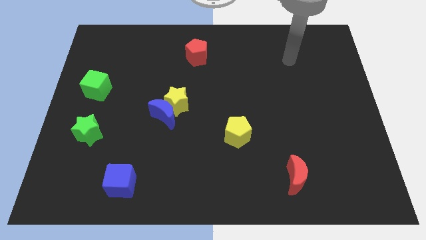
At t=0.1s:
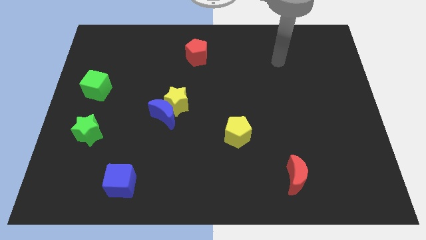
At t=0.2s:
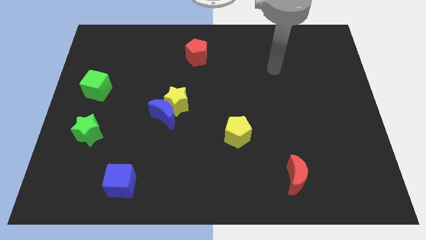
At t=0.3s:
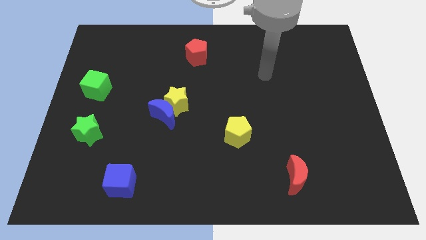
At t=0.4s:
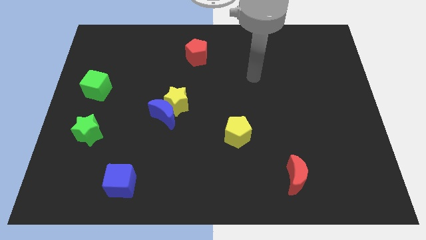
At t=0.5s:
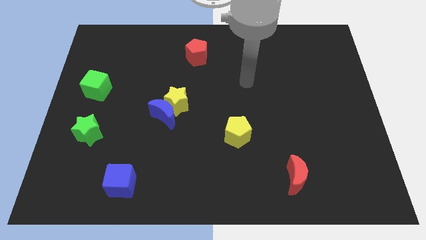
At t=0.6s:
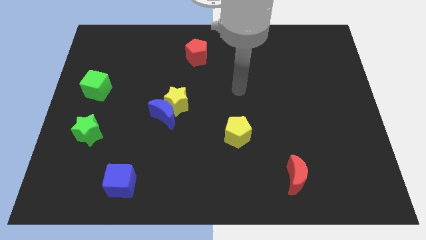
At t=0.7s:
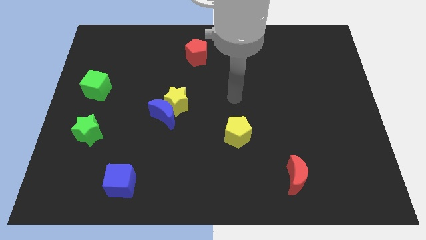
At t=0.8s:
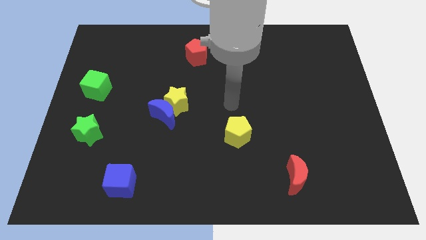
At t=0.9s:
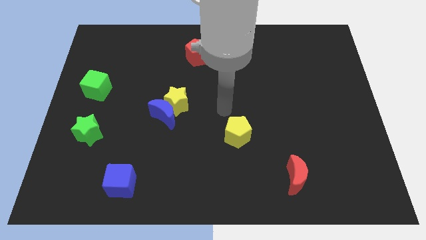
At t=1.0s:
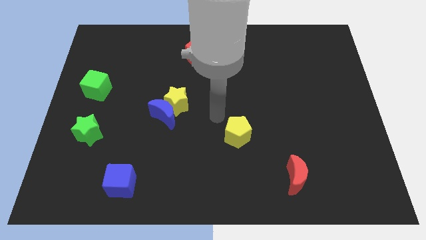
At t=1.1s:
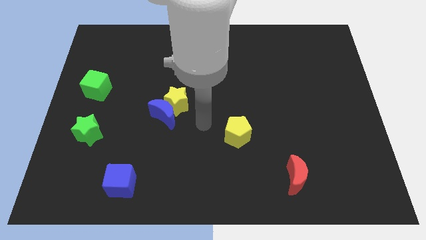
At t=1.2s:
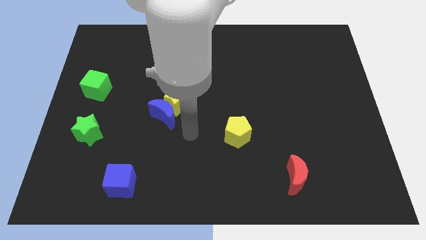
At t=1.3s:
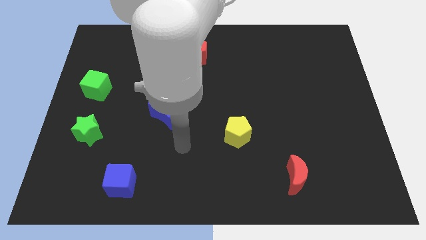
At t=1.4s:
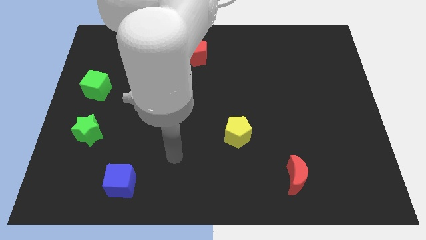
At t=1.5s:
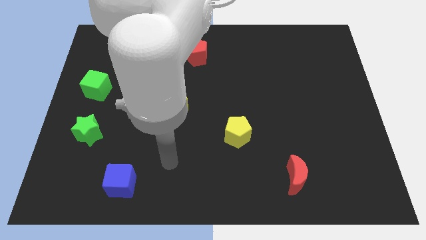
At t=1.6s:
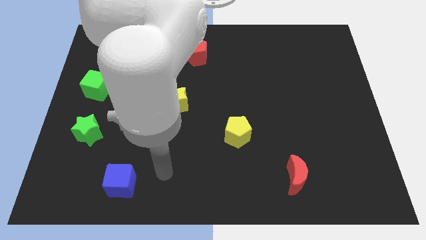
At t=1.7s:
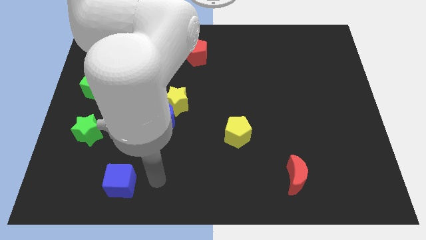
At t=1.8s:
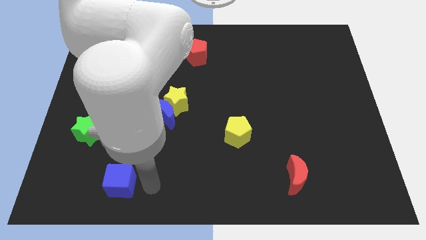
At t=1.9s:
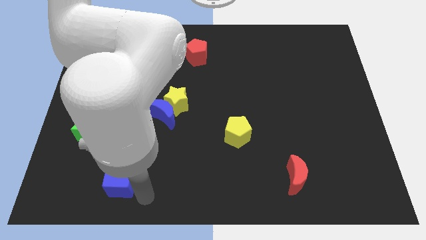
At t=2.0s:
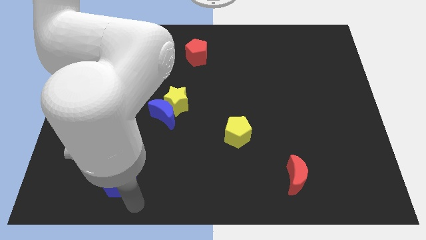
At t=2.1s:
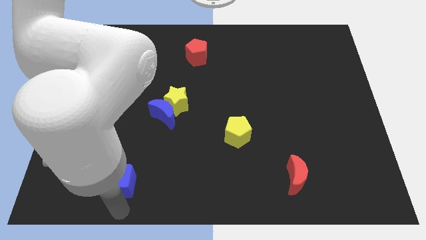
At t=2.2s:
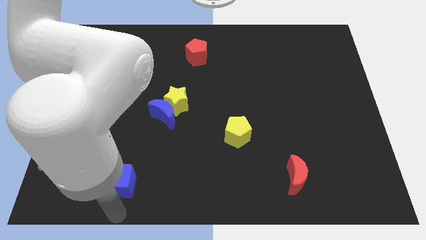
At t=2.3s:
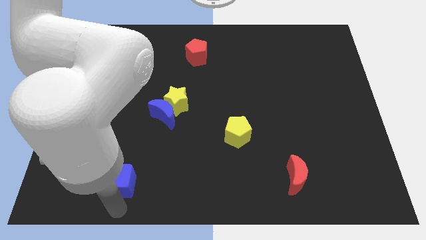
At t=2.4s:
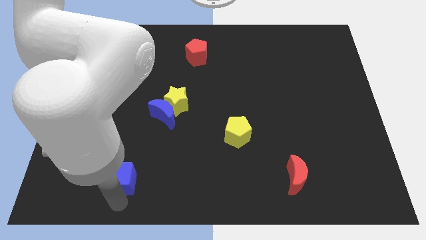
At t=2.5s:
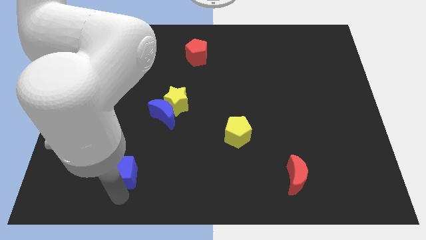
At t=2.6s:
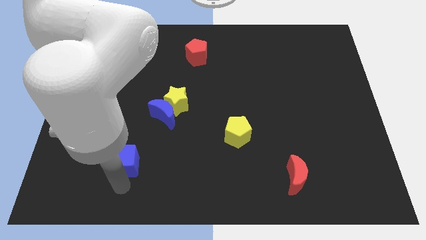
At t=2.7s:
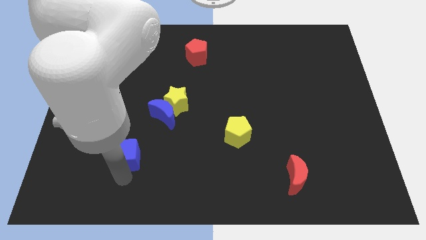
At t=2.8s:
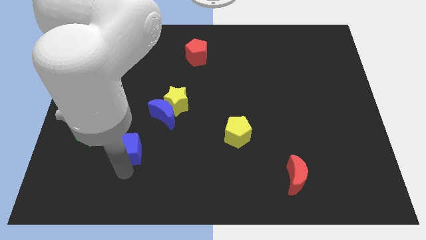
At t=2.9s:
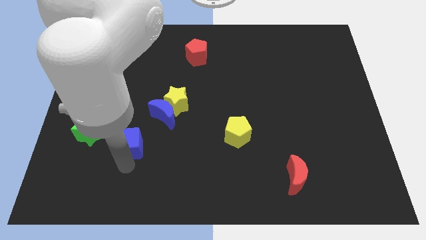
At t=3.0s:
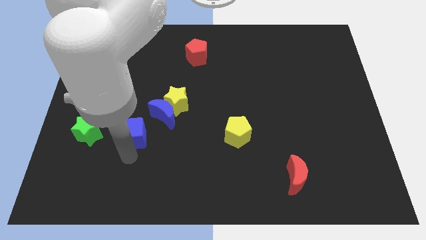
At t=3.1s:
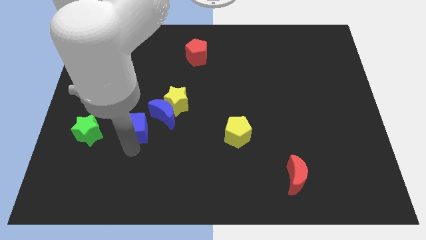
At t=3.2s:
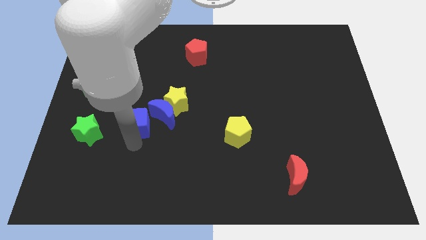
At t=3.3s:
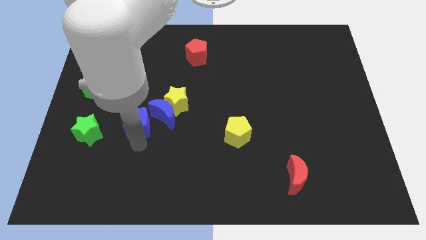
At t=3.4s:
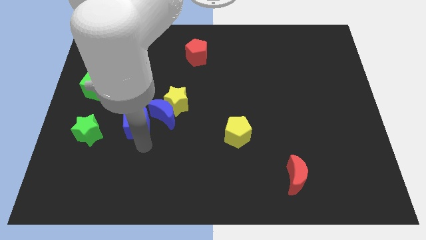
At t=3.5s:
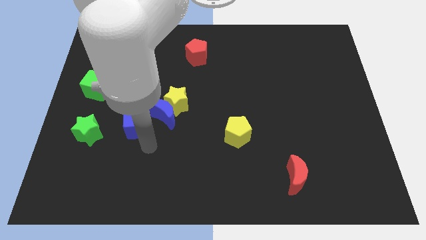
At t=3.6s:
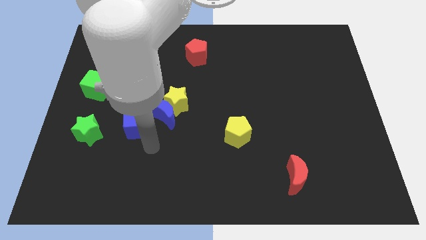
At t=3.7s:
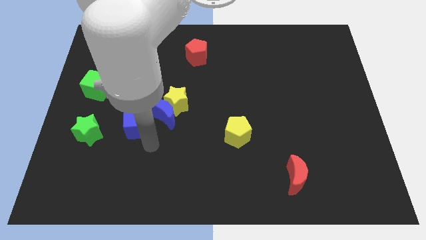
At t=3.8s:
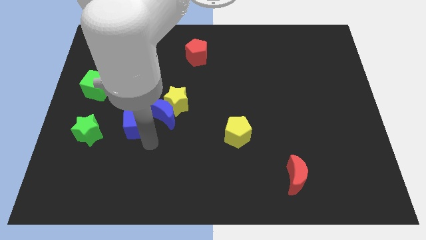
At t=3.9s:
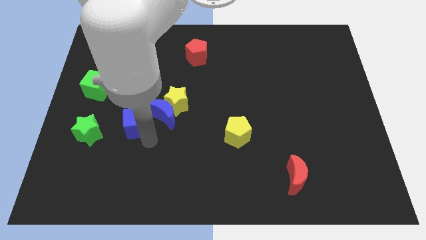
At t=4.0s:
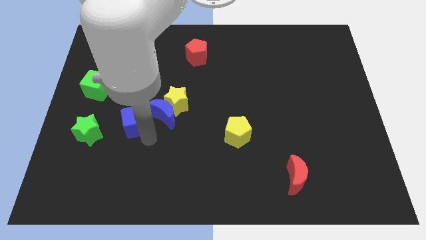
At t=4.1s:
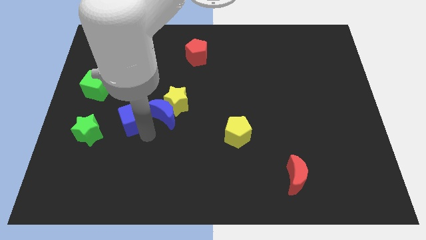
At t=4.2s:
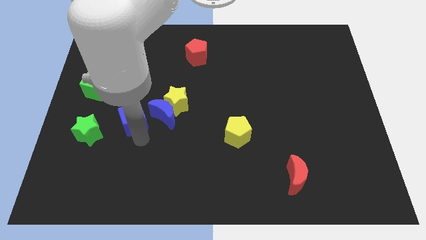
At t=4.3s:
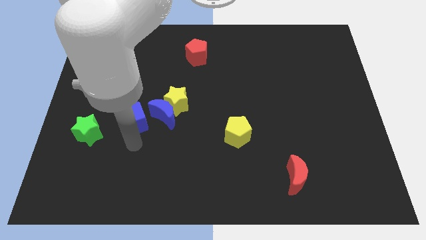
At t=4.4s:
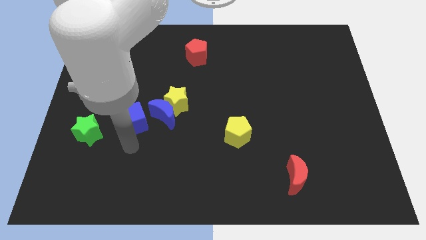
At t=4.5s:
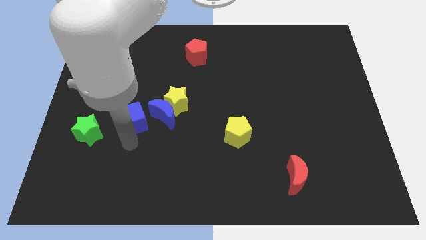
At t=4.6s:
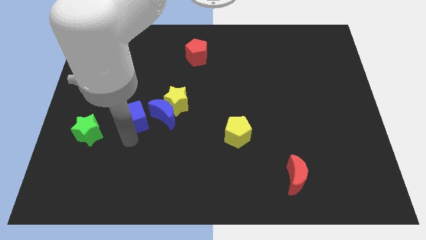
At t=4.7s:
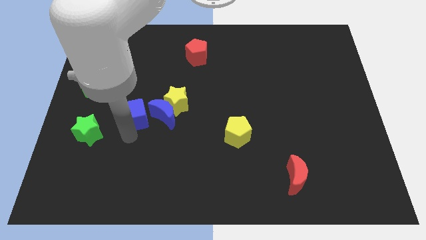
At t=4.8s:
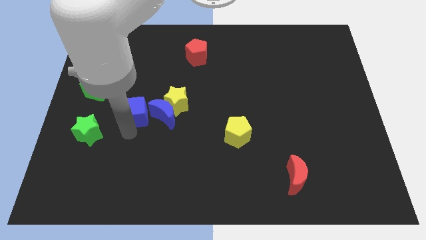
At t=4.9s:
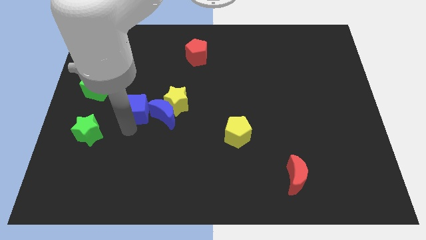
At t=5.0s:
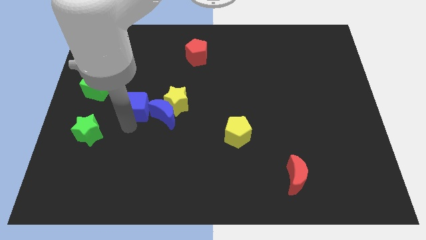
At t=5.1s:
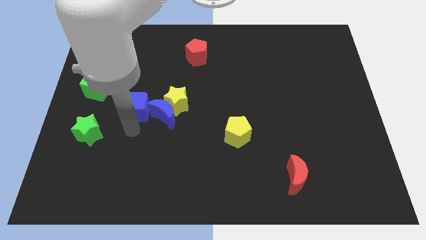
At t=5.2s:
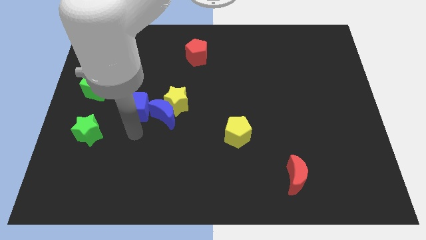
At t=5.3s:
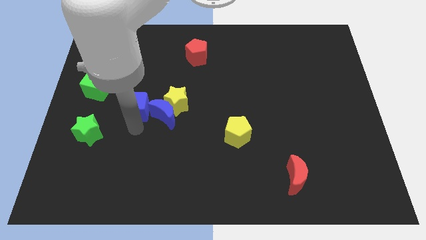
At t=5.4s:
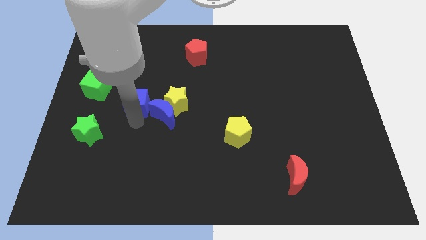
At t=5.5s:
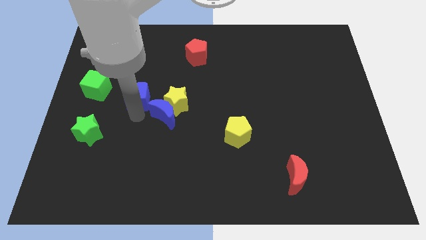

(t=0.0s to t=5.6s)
put the blue cube just right of the green cube

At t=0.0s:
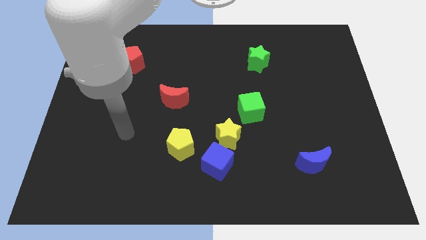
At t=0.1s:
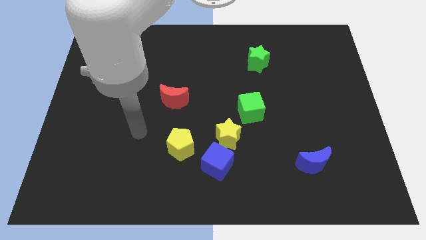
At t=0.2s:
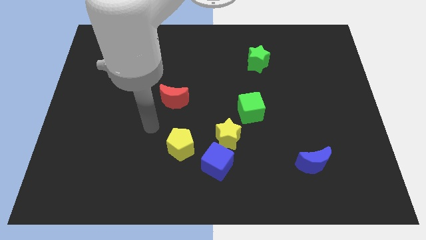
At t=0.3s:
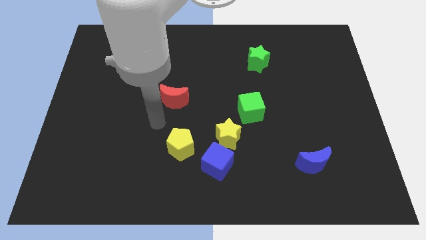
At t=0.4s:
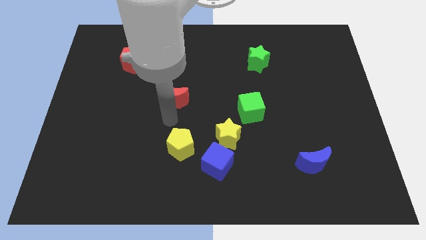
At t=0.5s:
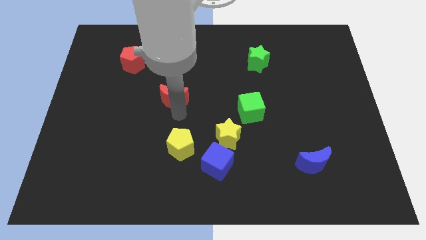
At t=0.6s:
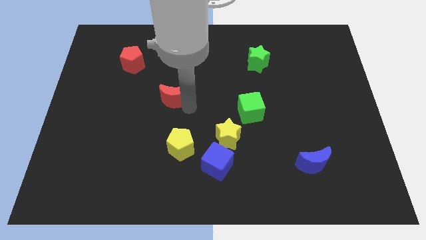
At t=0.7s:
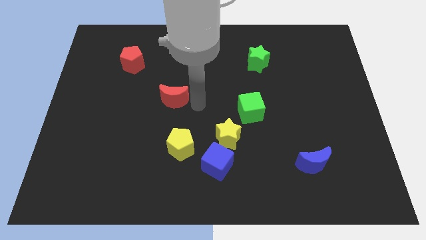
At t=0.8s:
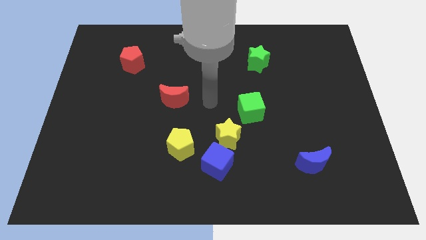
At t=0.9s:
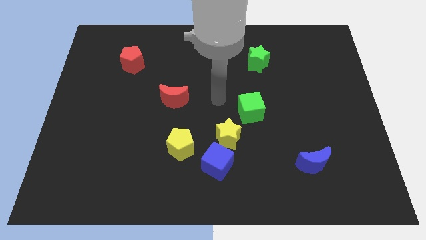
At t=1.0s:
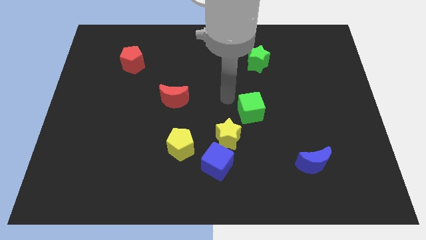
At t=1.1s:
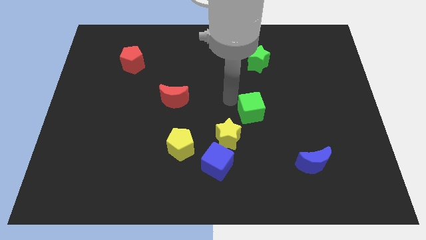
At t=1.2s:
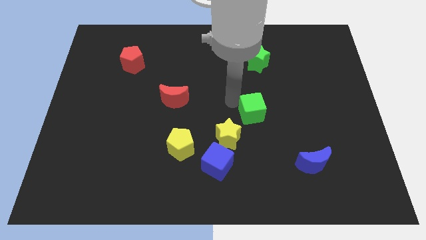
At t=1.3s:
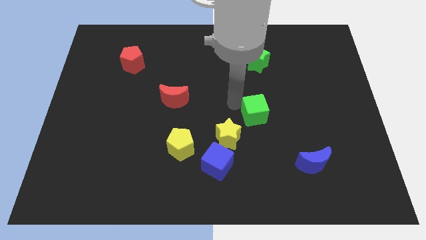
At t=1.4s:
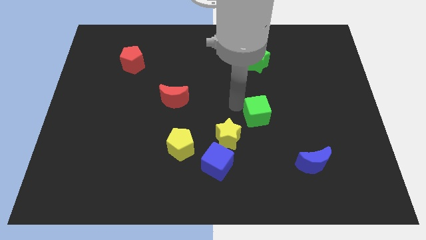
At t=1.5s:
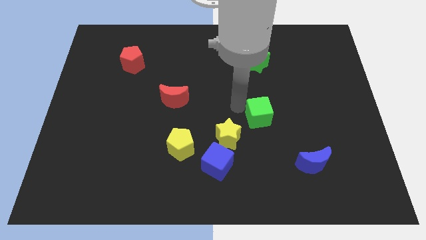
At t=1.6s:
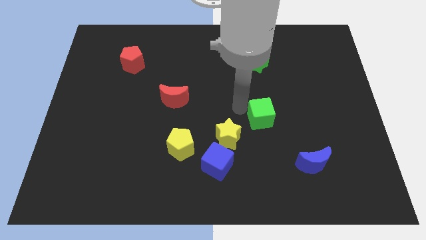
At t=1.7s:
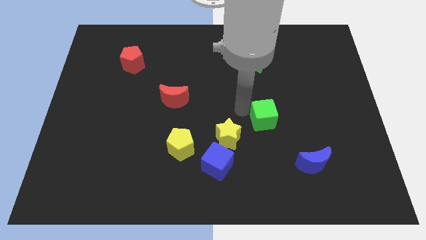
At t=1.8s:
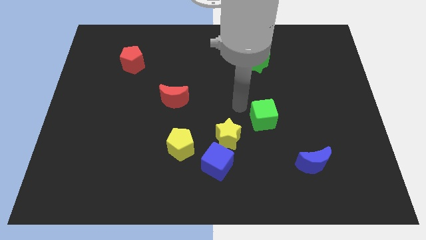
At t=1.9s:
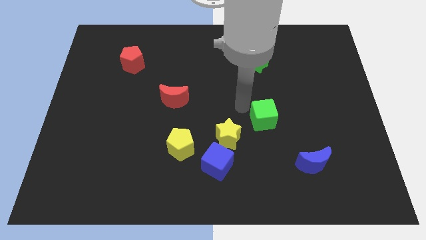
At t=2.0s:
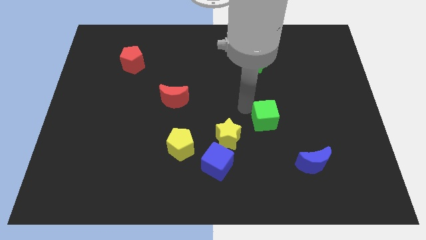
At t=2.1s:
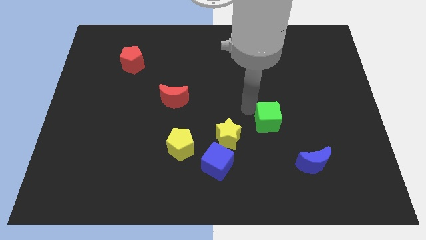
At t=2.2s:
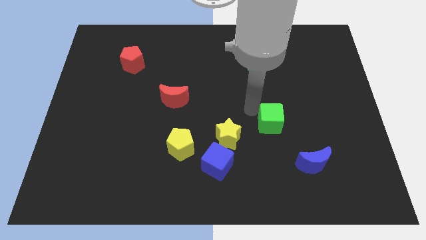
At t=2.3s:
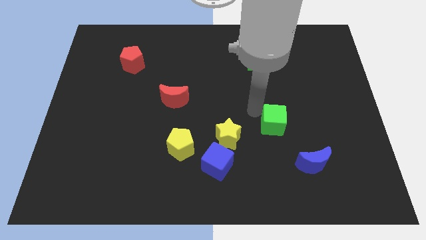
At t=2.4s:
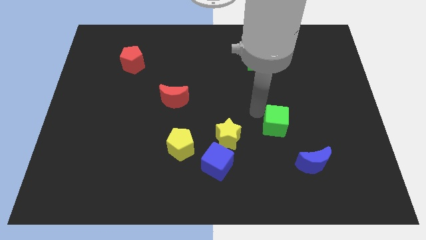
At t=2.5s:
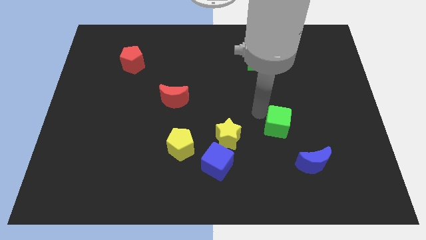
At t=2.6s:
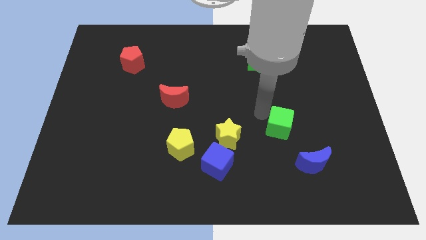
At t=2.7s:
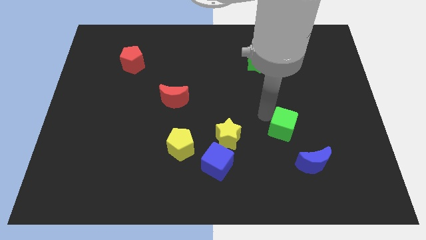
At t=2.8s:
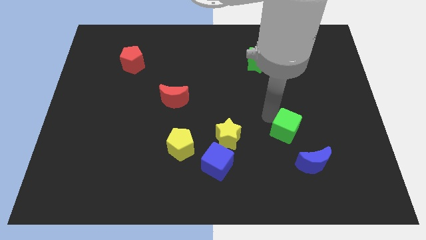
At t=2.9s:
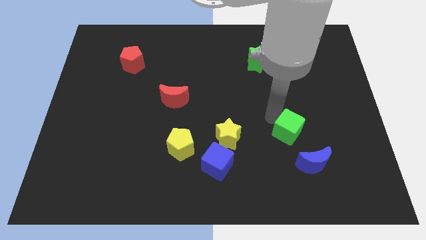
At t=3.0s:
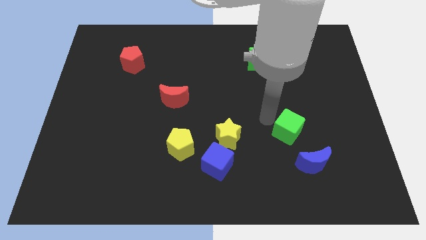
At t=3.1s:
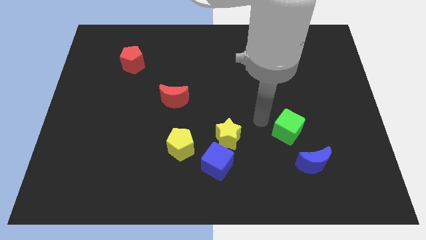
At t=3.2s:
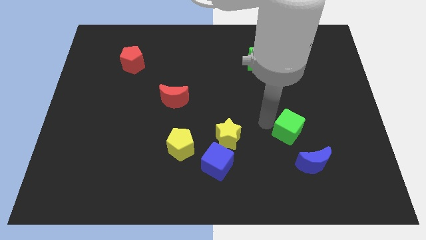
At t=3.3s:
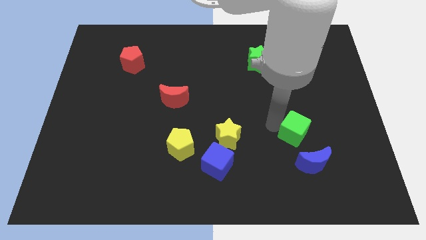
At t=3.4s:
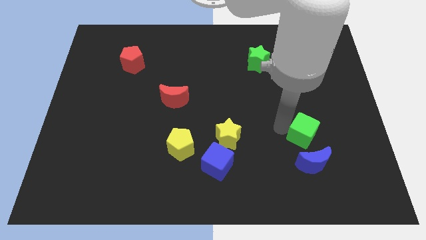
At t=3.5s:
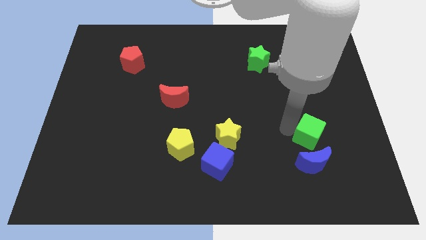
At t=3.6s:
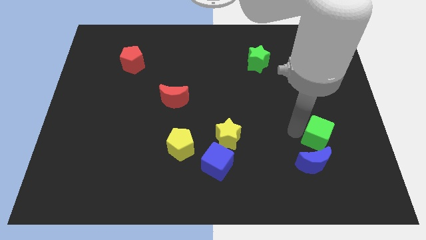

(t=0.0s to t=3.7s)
push the green cube to the top right of the blue moon
